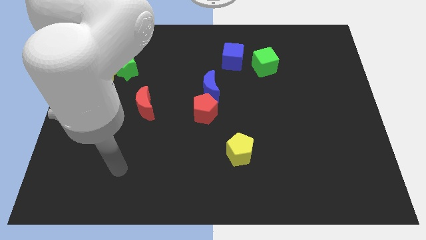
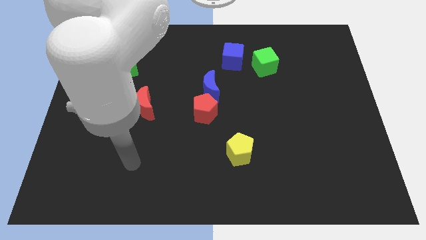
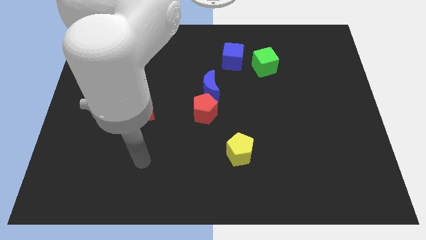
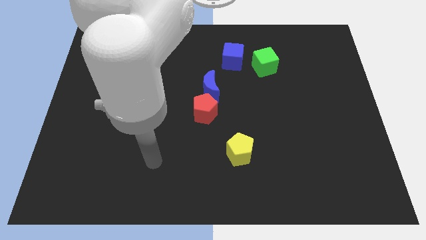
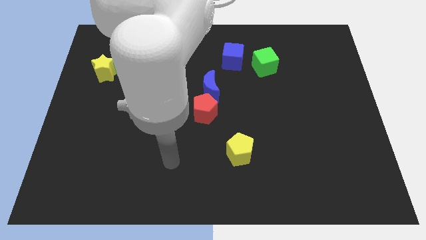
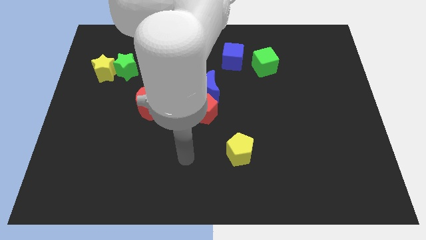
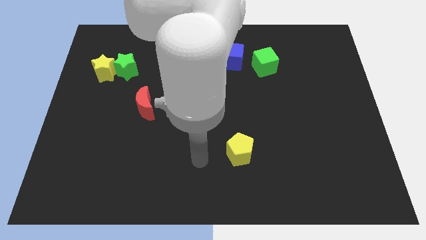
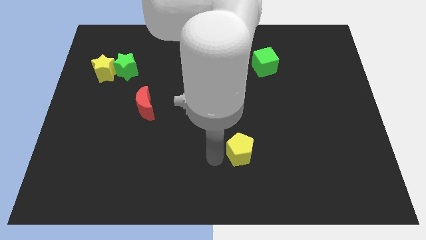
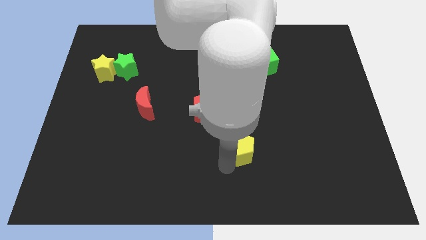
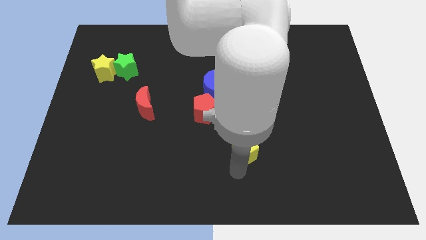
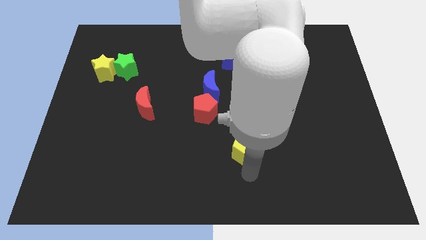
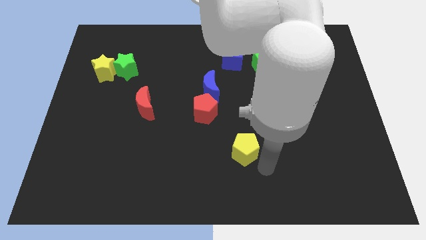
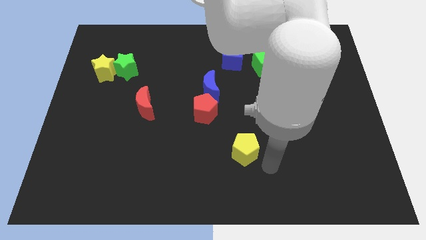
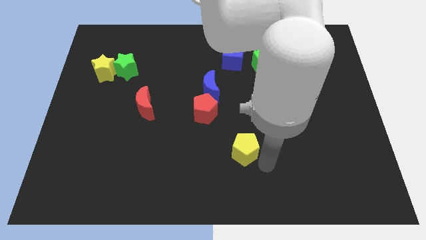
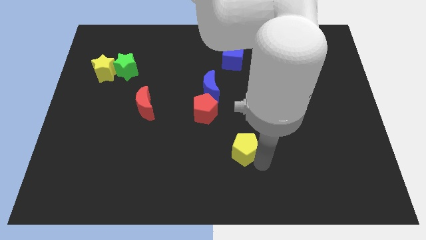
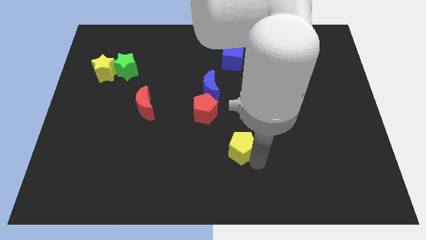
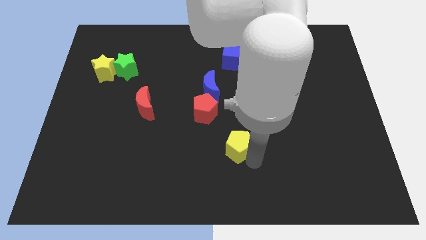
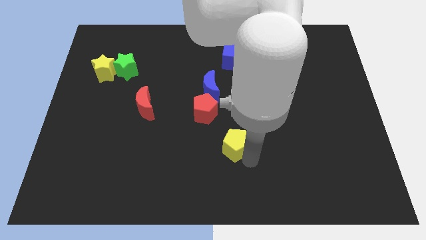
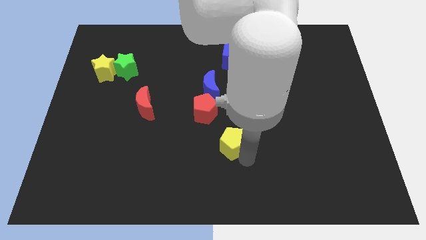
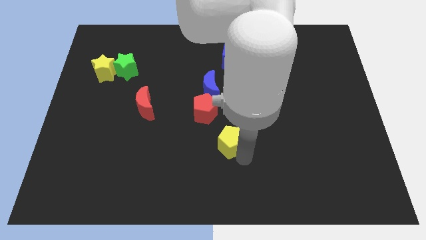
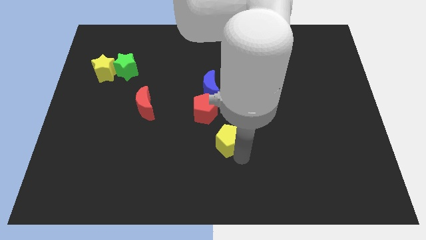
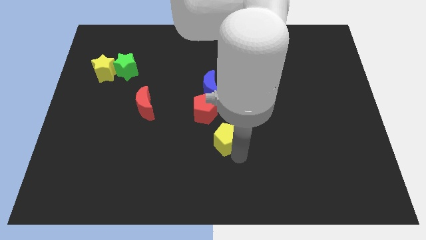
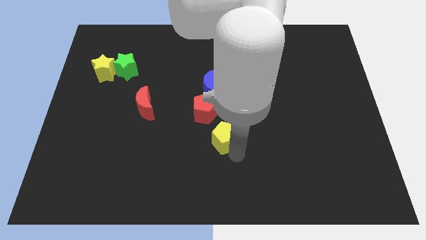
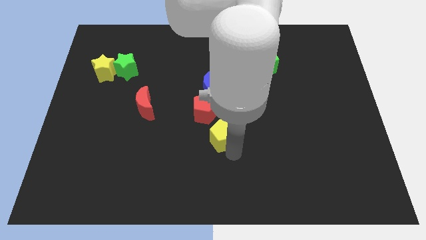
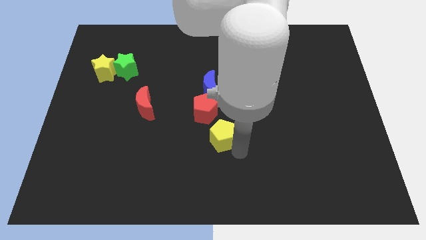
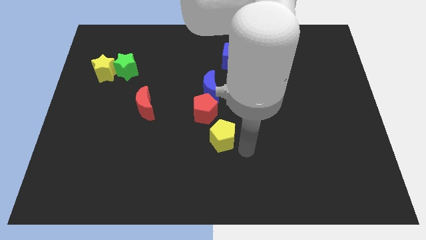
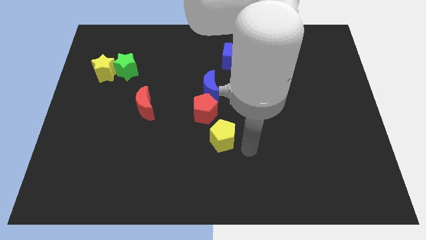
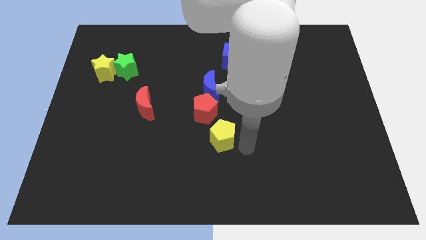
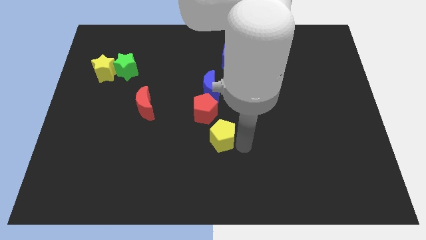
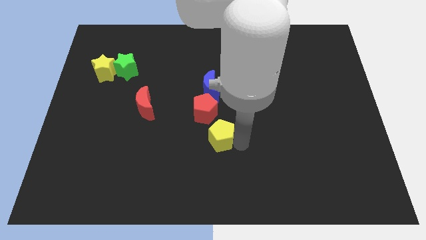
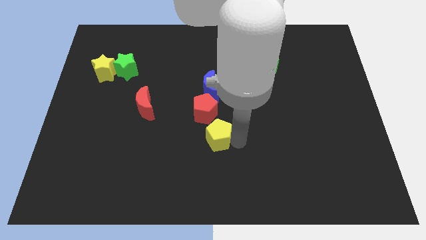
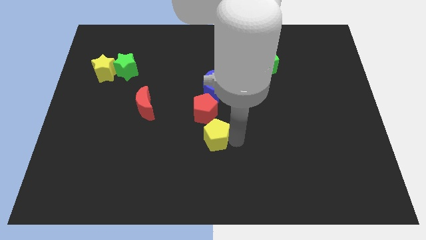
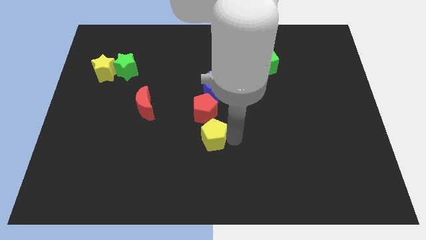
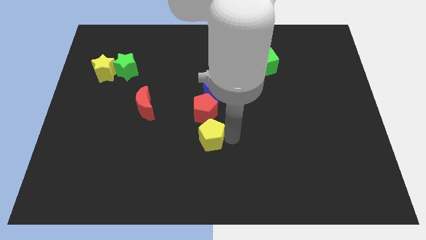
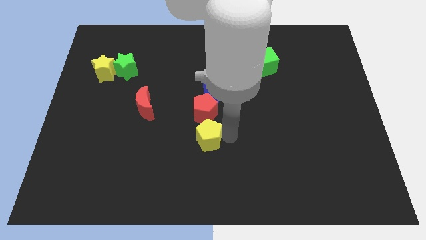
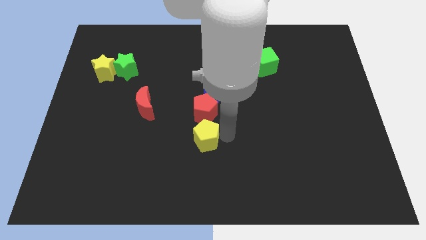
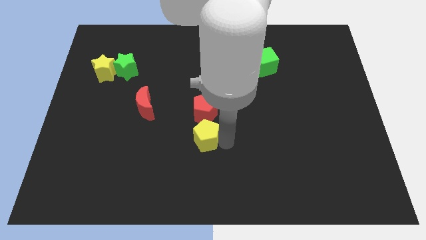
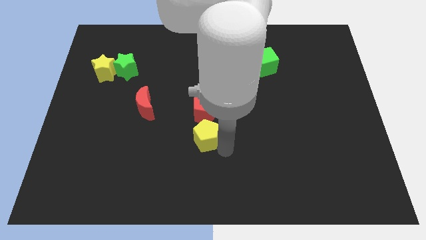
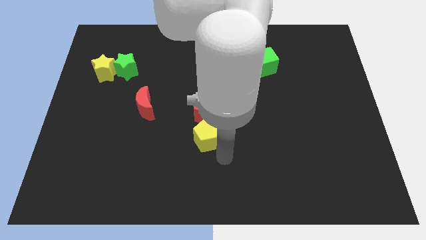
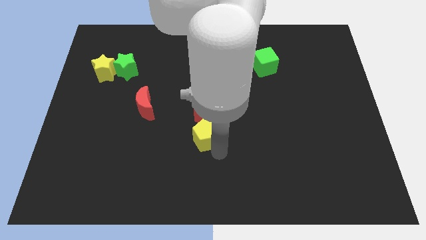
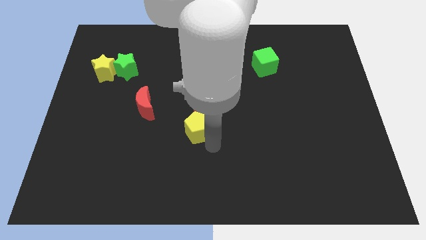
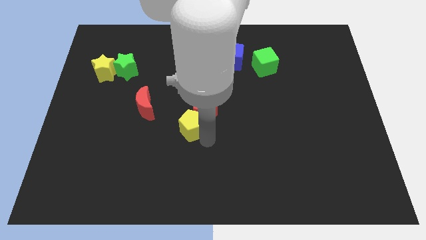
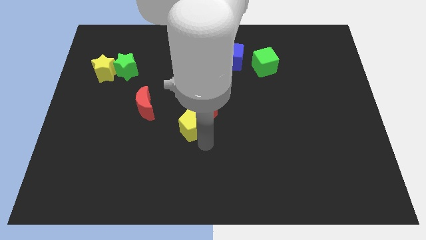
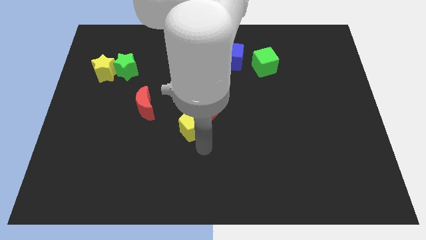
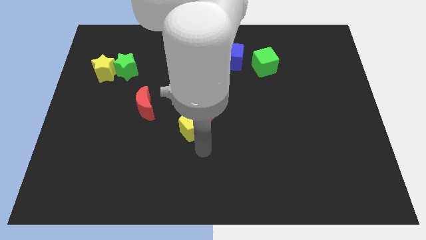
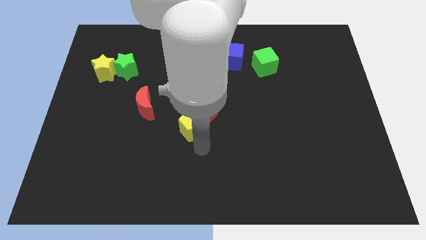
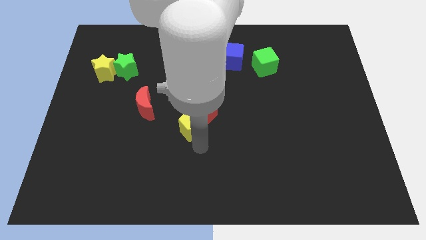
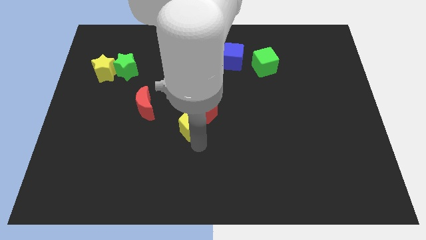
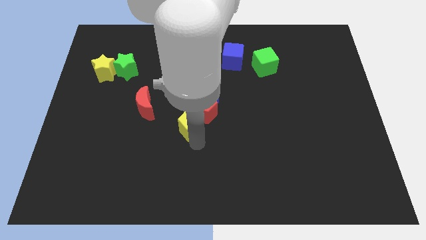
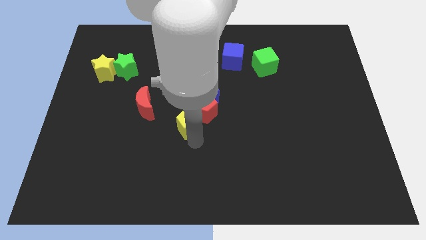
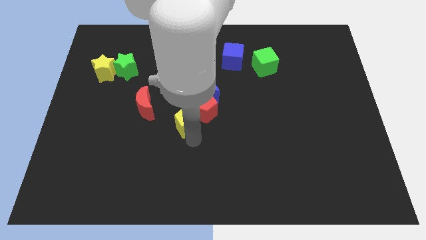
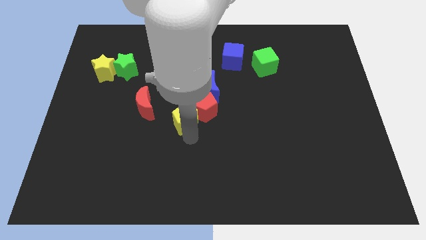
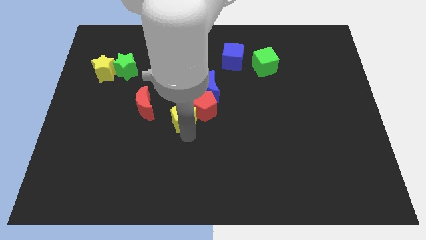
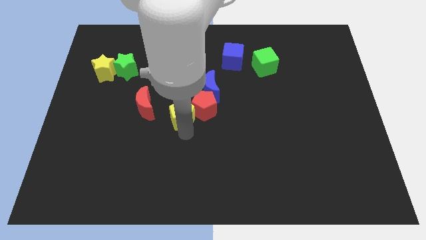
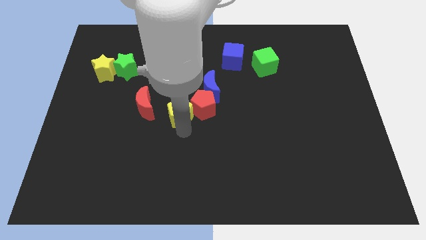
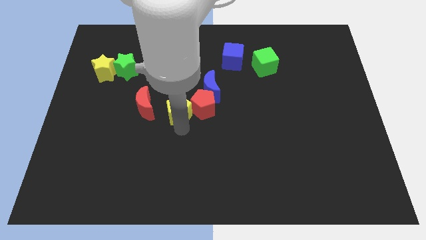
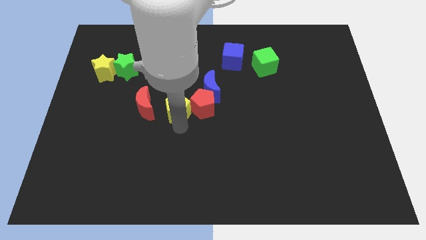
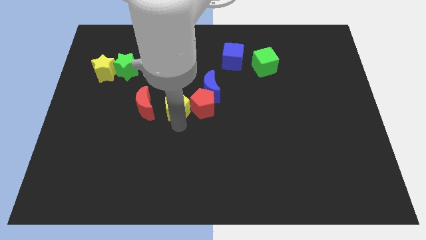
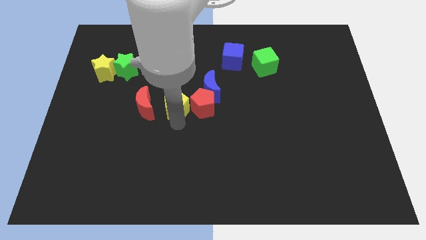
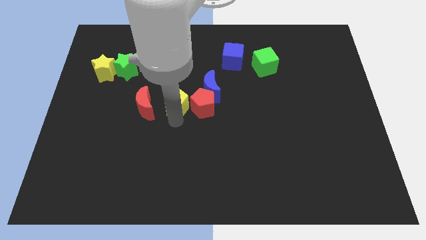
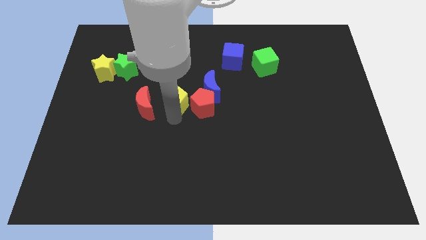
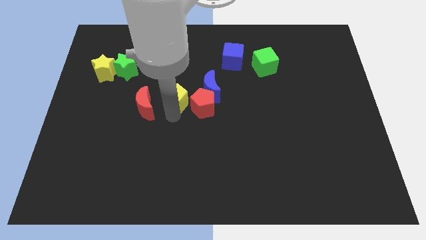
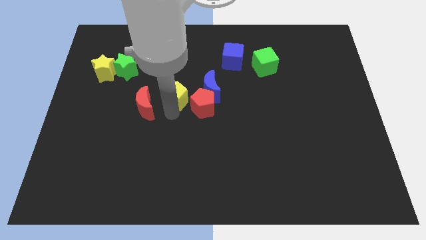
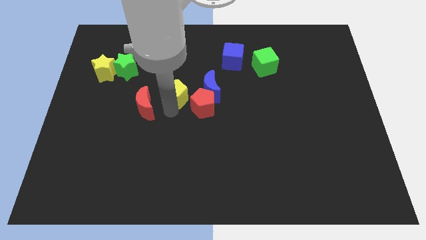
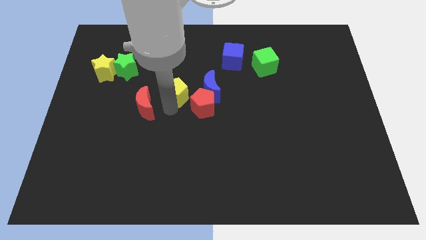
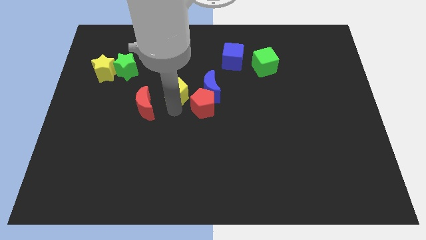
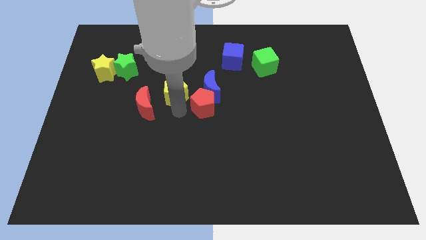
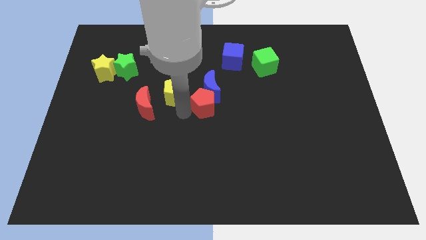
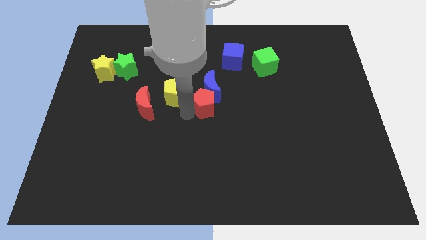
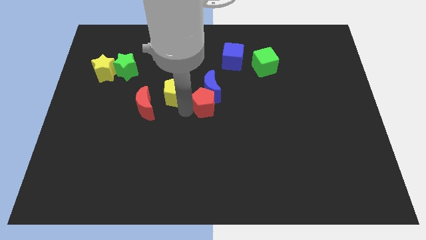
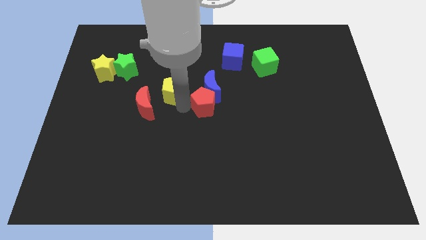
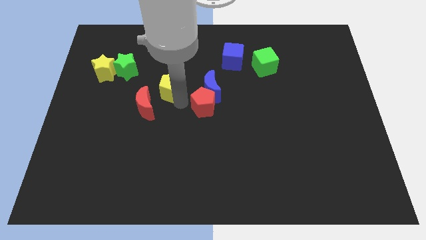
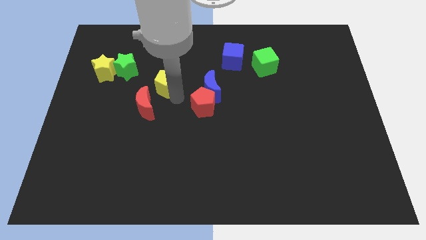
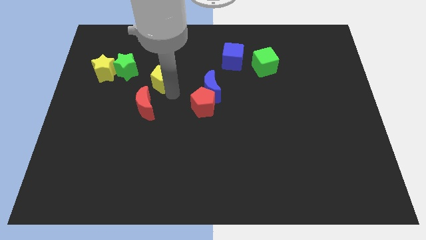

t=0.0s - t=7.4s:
push the yellow pentagon right of the green star

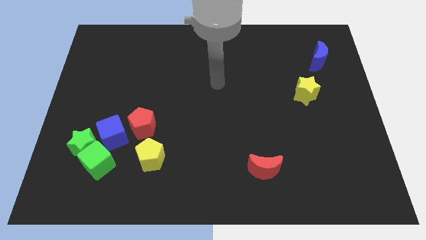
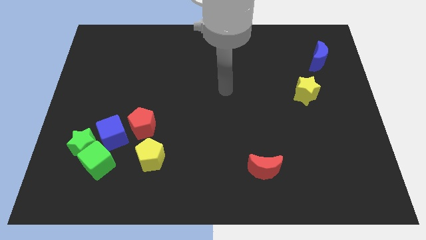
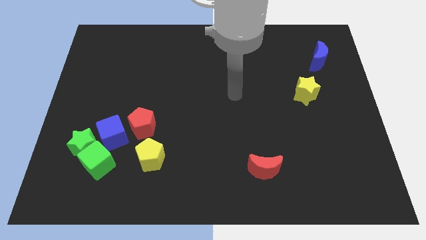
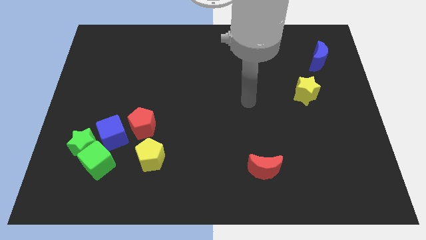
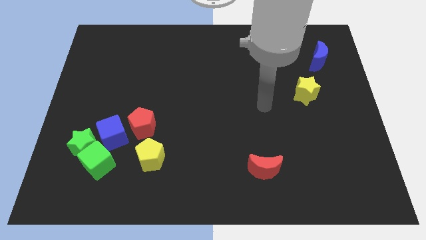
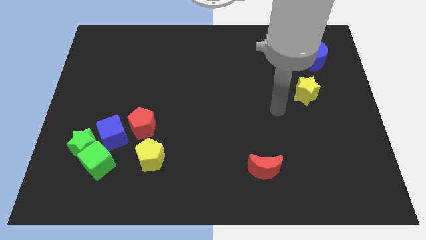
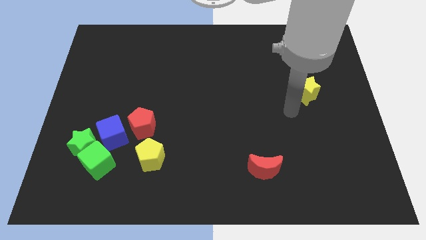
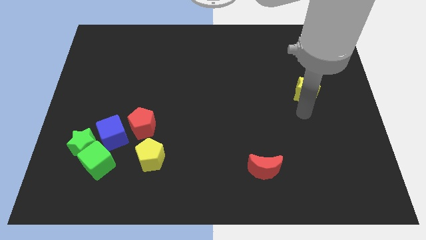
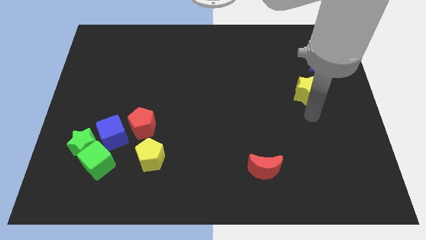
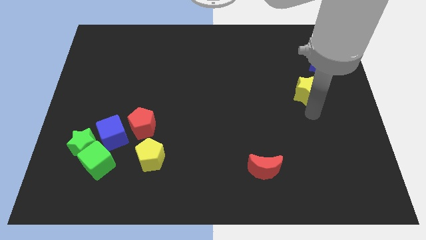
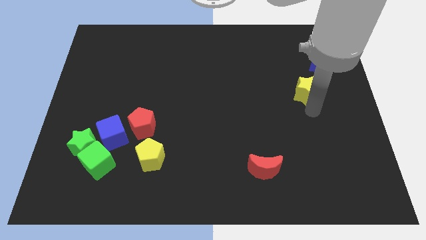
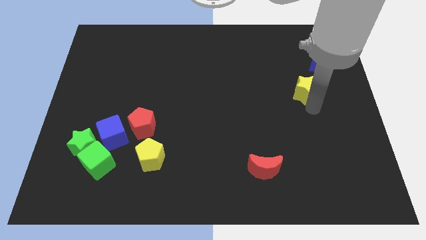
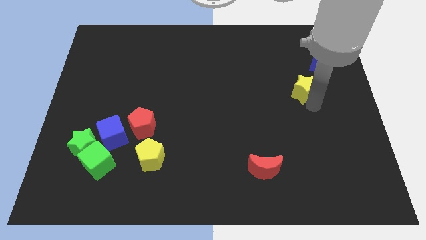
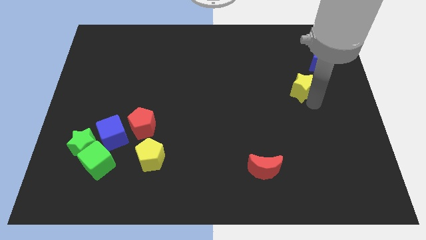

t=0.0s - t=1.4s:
slide the yellow star to the bottom left side of the blue moon
